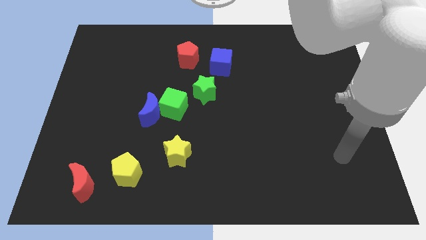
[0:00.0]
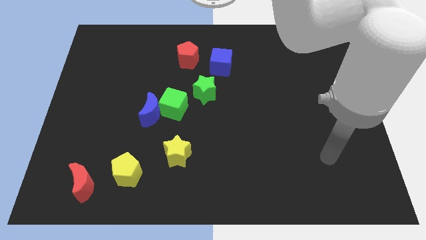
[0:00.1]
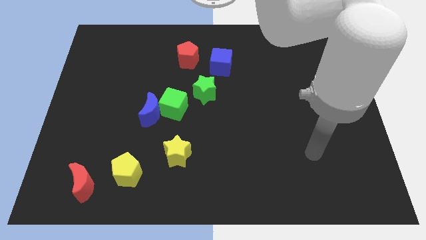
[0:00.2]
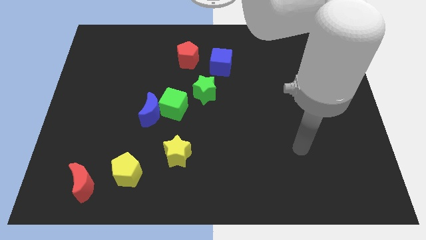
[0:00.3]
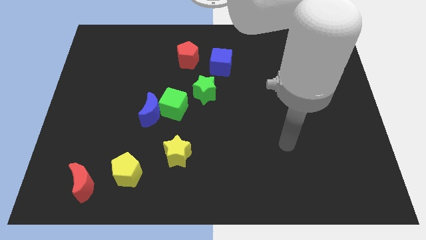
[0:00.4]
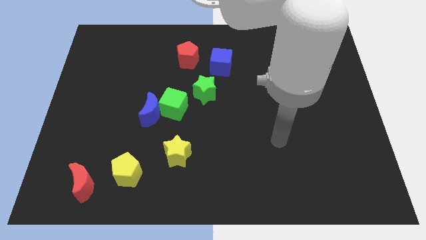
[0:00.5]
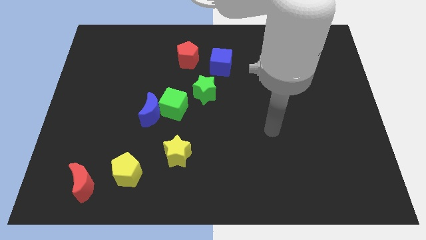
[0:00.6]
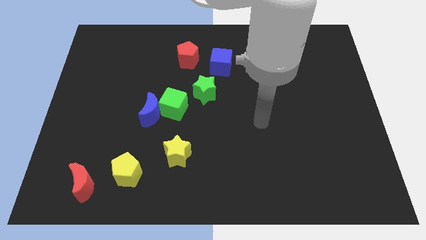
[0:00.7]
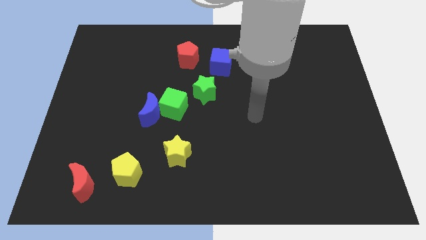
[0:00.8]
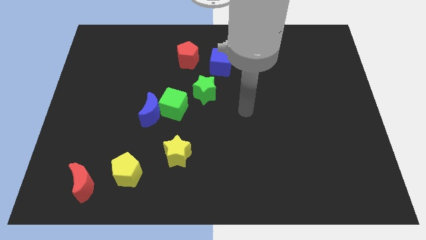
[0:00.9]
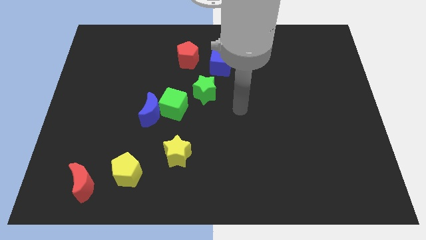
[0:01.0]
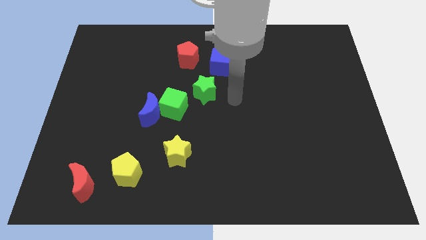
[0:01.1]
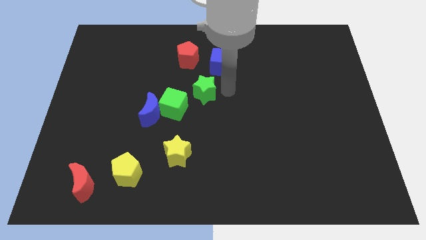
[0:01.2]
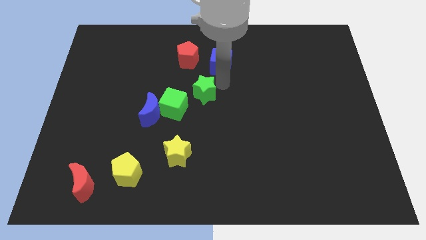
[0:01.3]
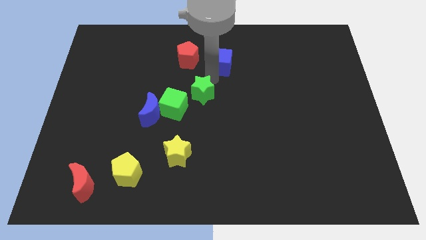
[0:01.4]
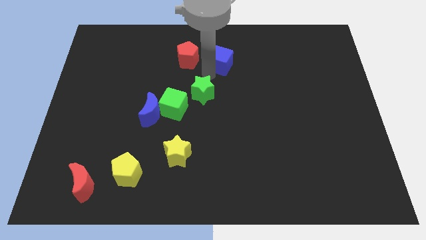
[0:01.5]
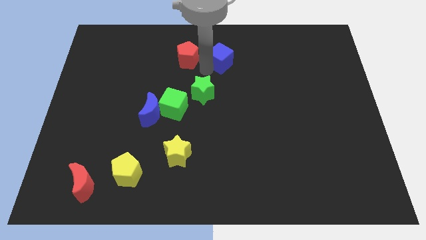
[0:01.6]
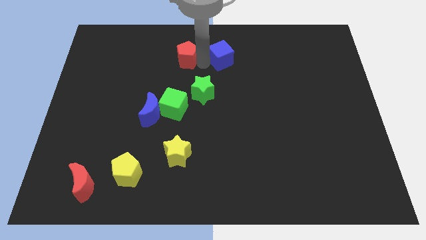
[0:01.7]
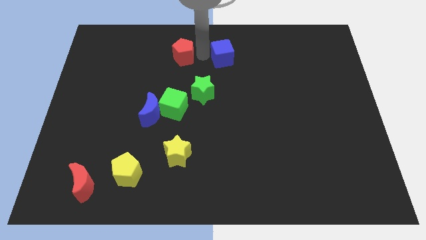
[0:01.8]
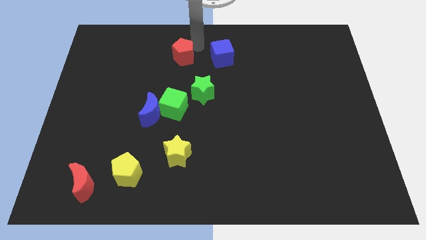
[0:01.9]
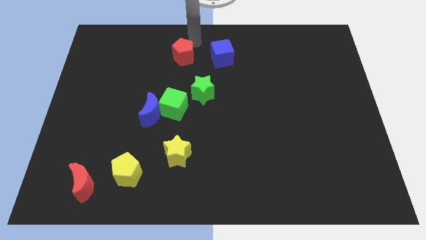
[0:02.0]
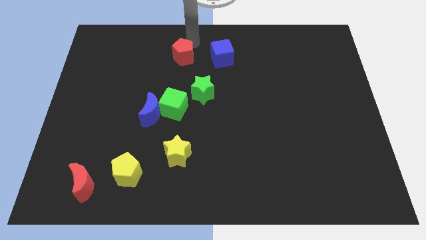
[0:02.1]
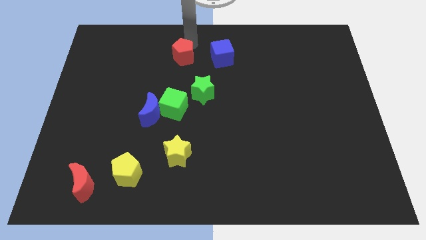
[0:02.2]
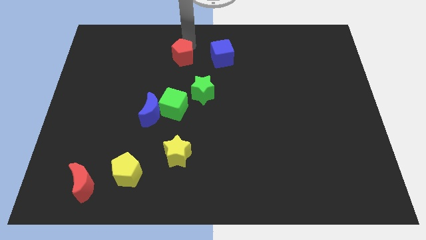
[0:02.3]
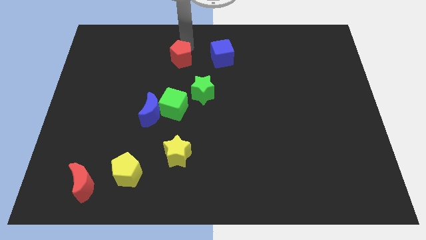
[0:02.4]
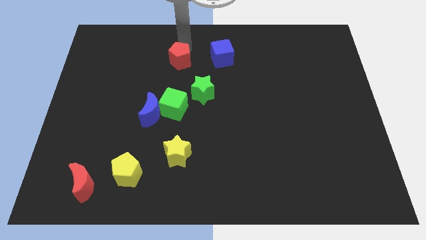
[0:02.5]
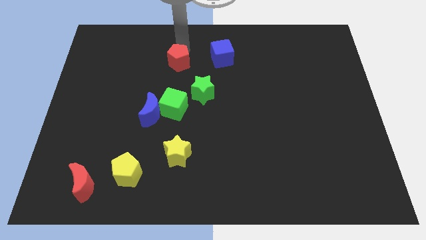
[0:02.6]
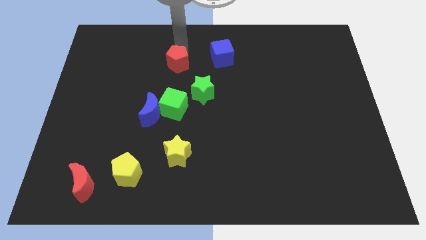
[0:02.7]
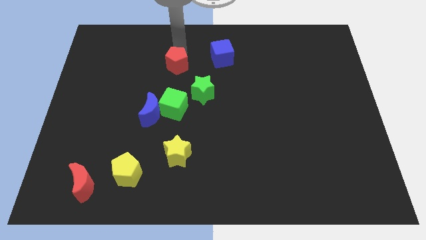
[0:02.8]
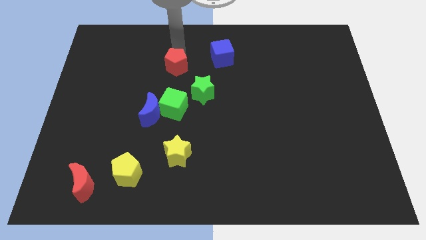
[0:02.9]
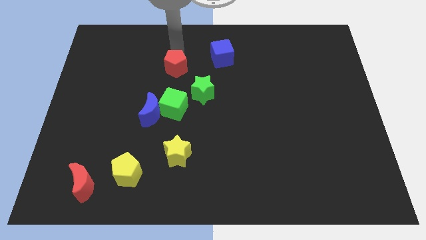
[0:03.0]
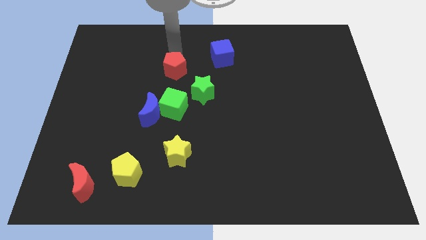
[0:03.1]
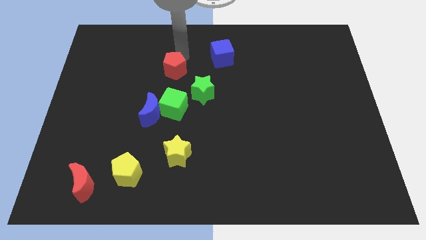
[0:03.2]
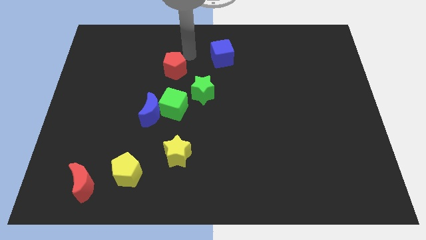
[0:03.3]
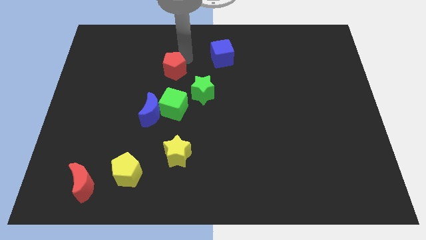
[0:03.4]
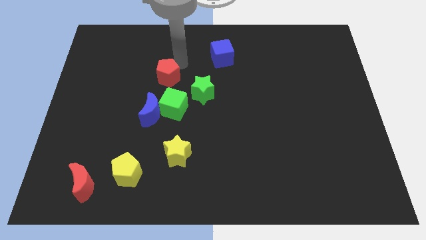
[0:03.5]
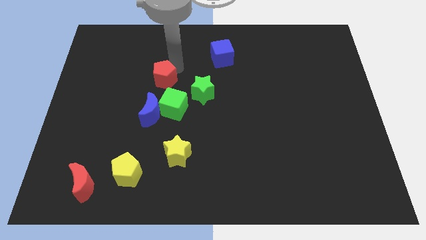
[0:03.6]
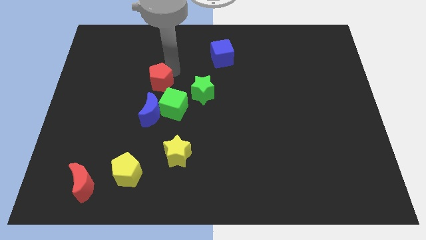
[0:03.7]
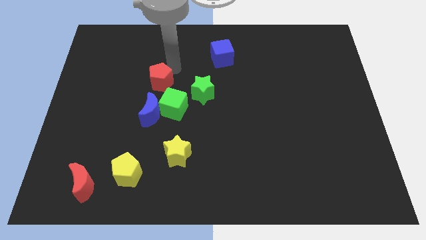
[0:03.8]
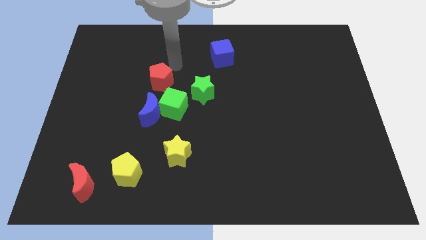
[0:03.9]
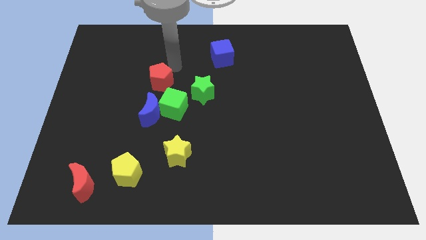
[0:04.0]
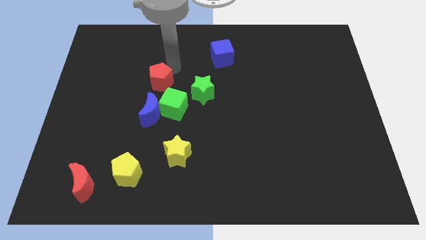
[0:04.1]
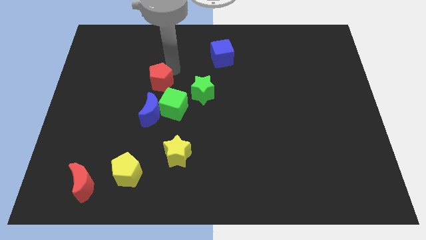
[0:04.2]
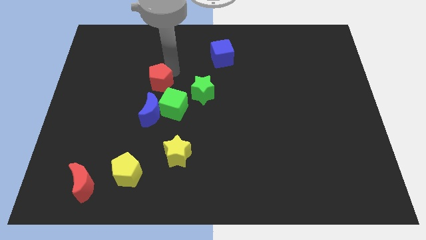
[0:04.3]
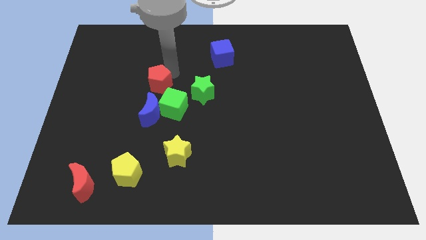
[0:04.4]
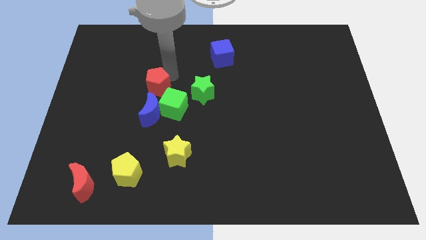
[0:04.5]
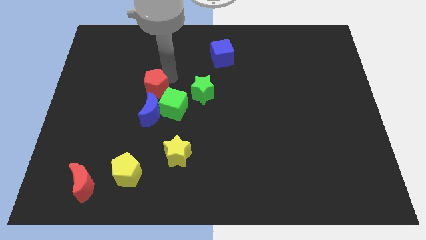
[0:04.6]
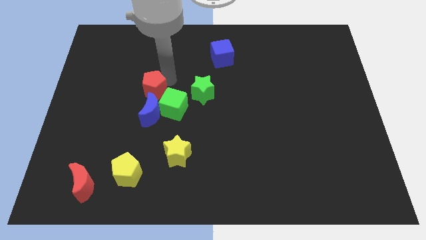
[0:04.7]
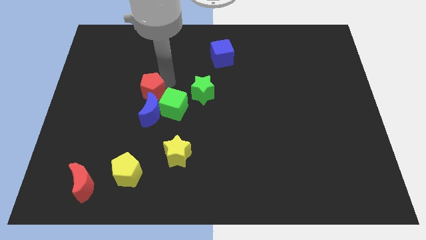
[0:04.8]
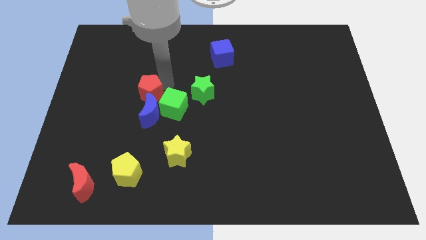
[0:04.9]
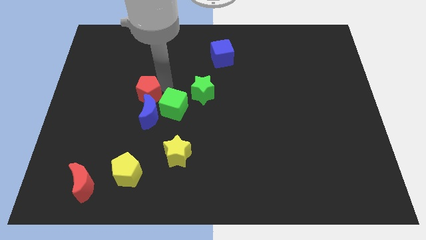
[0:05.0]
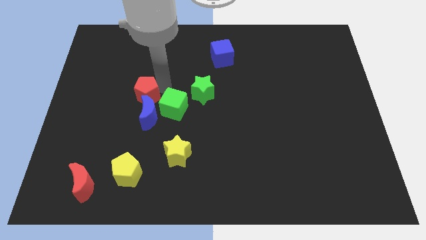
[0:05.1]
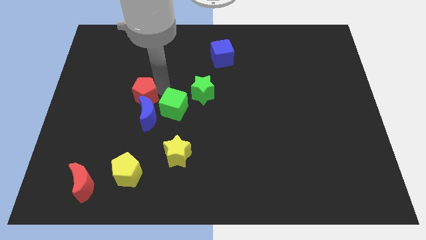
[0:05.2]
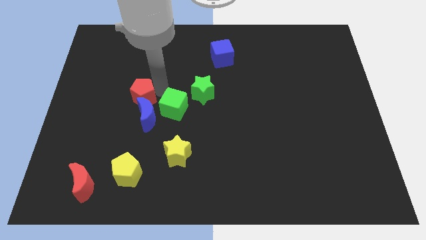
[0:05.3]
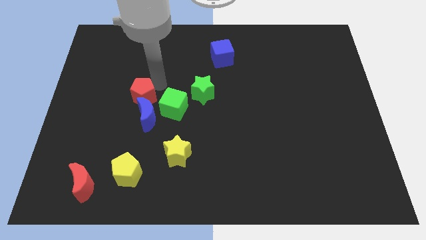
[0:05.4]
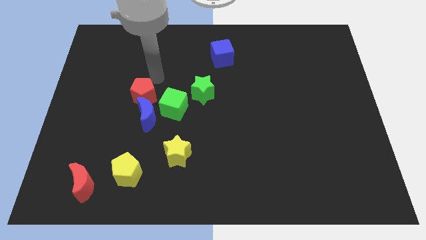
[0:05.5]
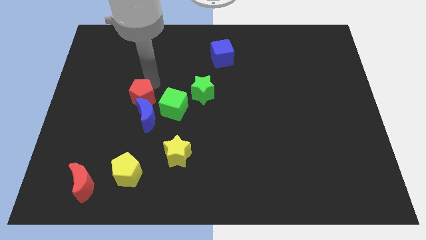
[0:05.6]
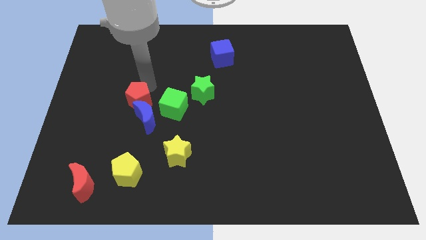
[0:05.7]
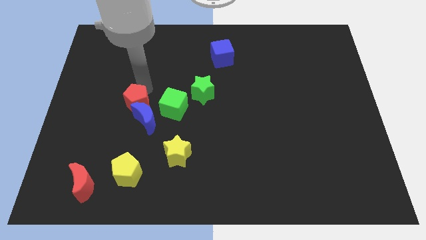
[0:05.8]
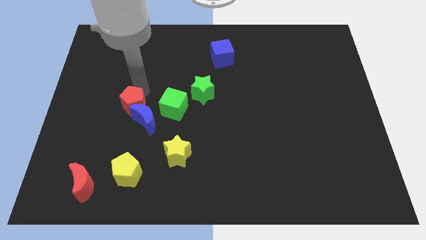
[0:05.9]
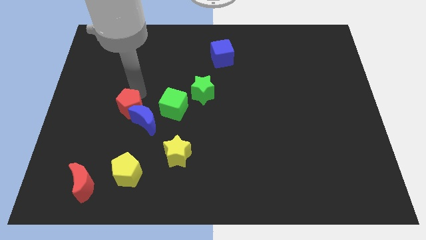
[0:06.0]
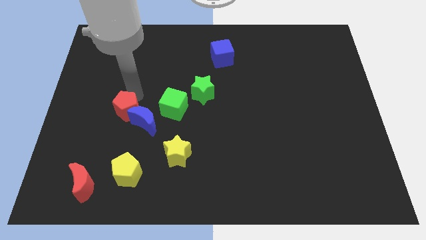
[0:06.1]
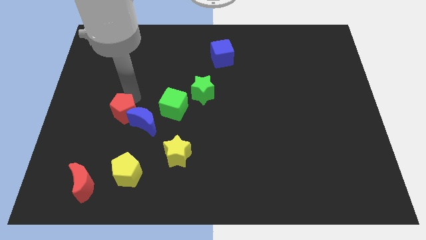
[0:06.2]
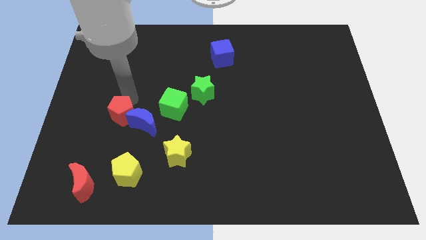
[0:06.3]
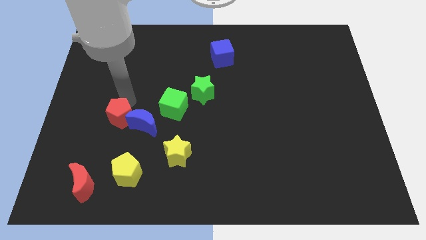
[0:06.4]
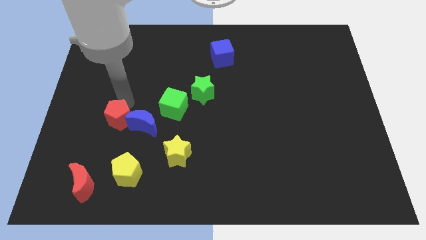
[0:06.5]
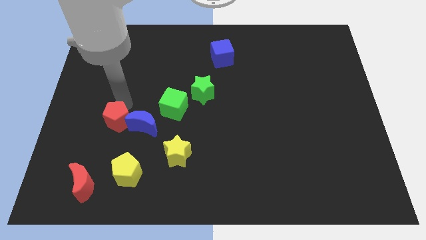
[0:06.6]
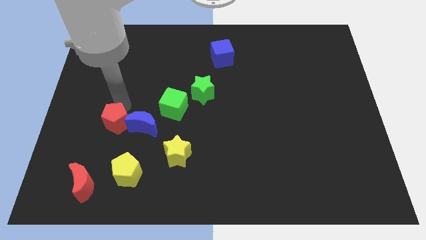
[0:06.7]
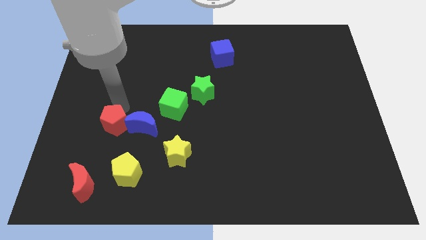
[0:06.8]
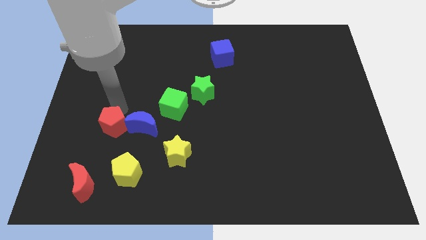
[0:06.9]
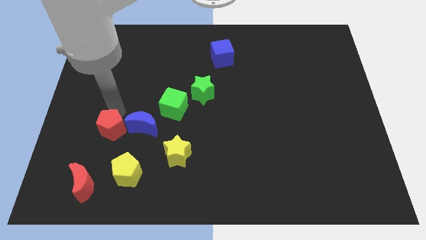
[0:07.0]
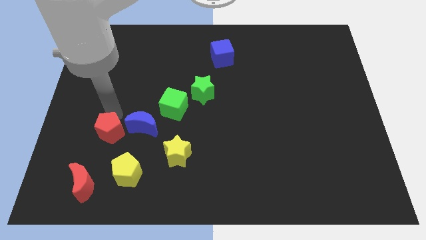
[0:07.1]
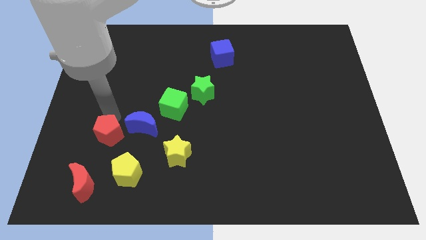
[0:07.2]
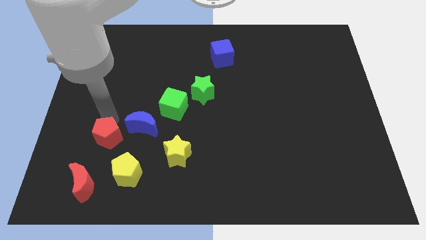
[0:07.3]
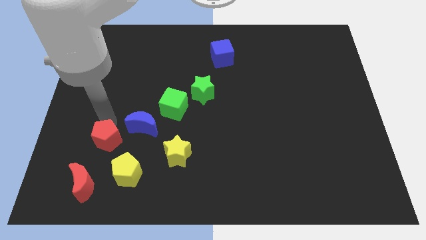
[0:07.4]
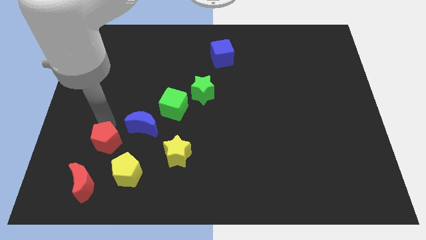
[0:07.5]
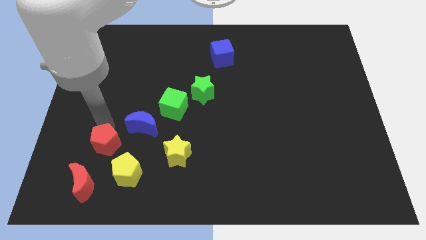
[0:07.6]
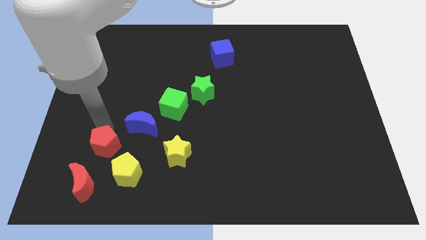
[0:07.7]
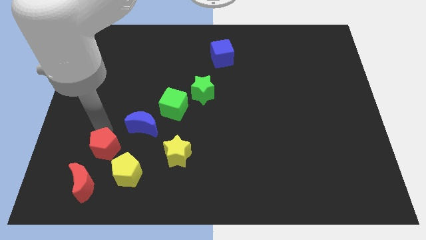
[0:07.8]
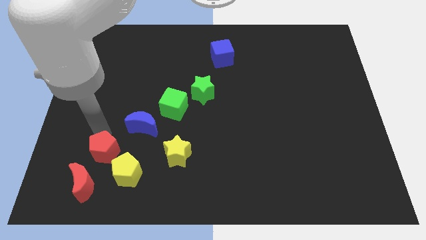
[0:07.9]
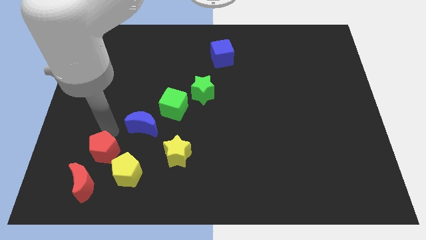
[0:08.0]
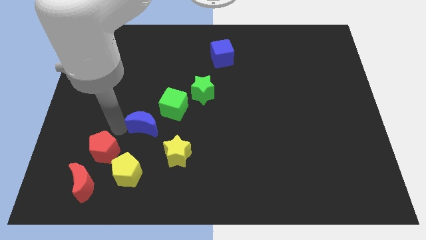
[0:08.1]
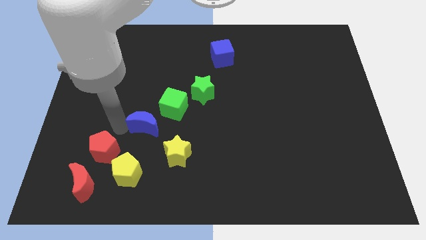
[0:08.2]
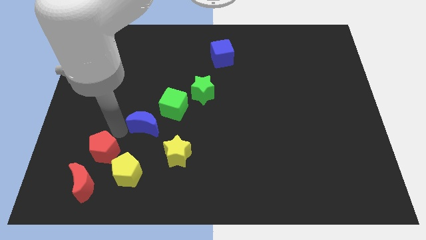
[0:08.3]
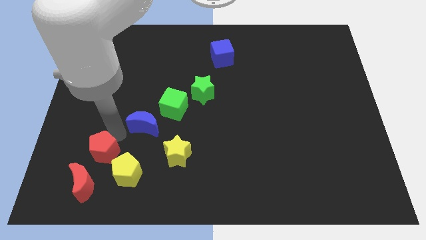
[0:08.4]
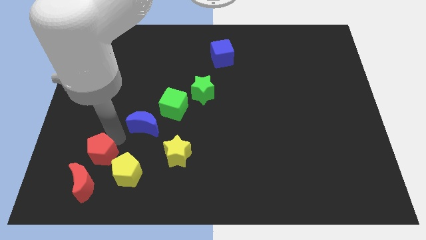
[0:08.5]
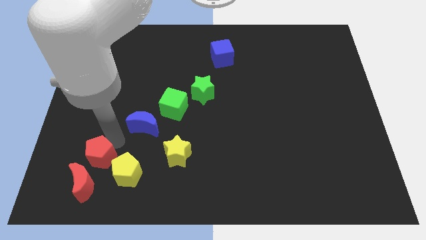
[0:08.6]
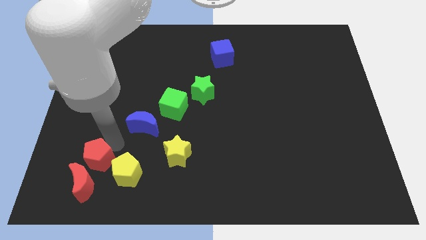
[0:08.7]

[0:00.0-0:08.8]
push the red pentagon next to the red moon
